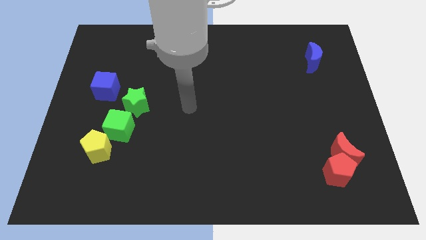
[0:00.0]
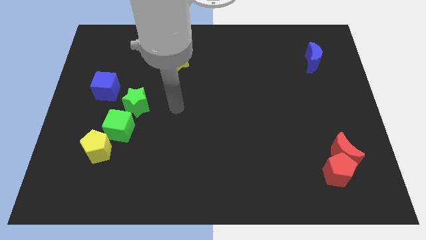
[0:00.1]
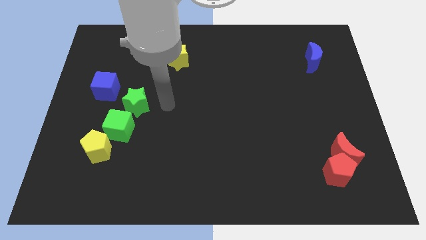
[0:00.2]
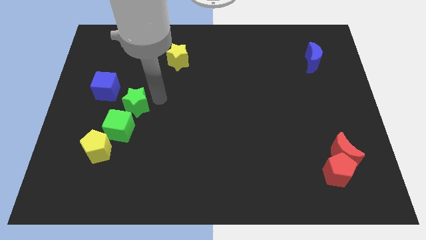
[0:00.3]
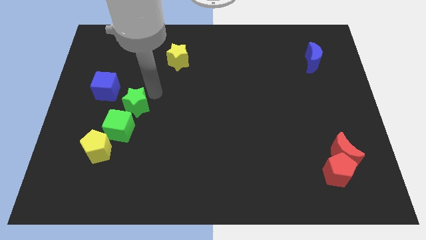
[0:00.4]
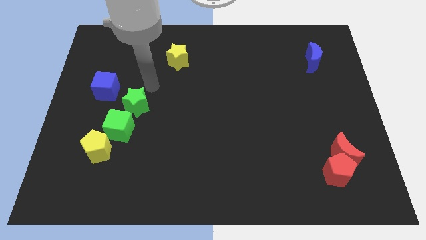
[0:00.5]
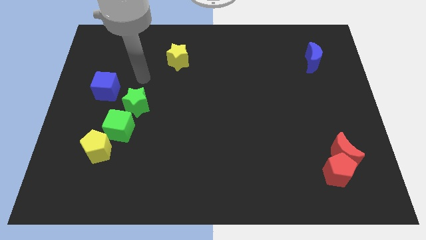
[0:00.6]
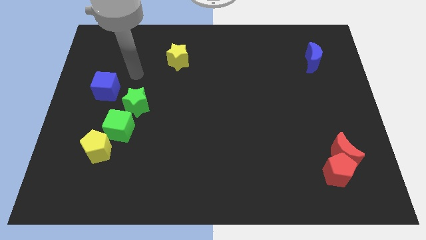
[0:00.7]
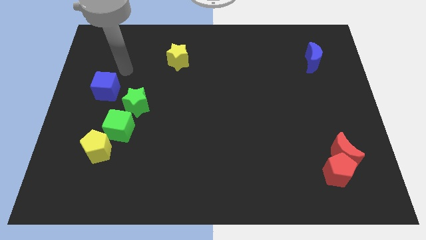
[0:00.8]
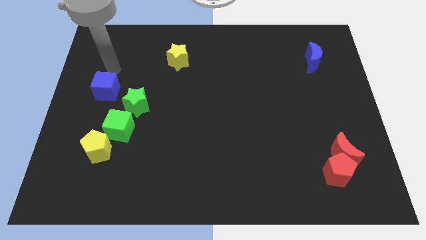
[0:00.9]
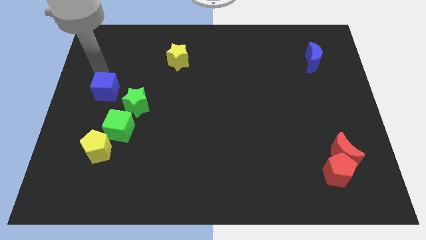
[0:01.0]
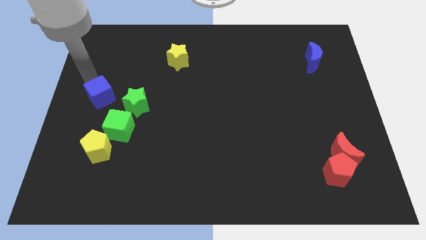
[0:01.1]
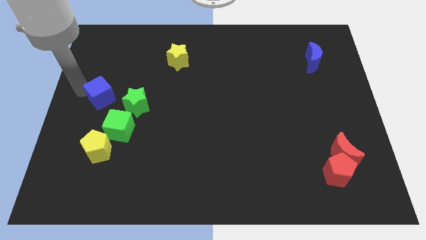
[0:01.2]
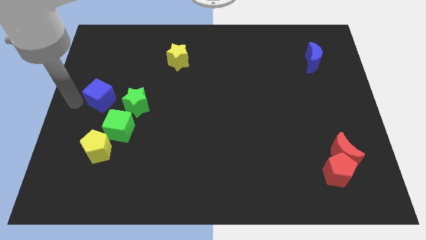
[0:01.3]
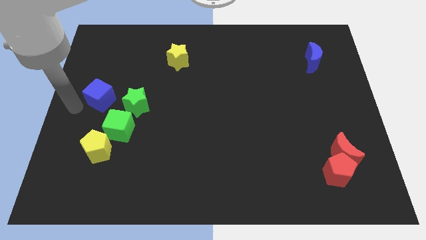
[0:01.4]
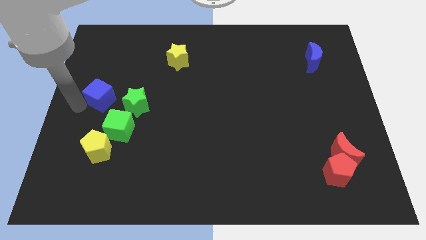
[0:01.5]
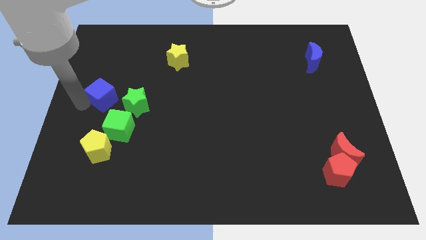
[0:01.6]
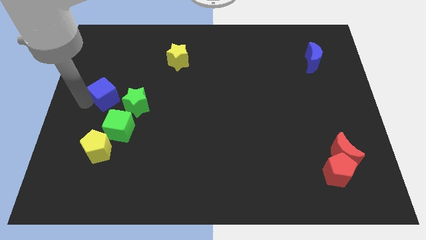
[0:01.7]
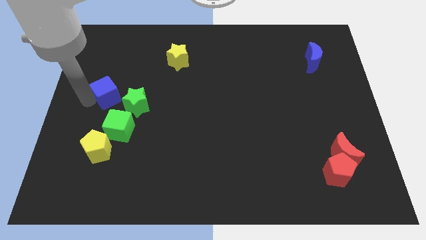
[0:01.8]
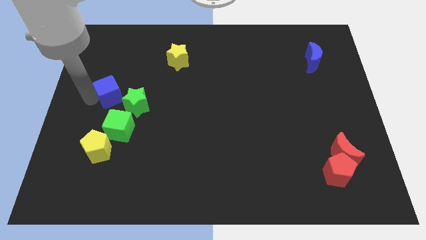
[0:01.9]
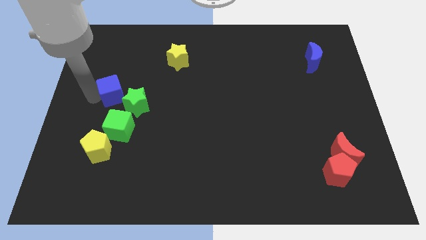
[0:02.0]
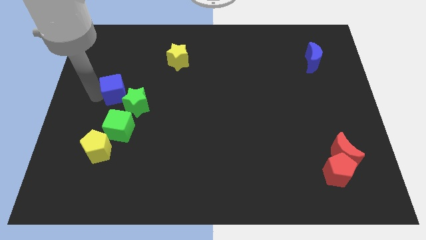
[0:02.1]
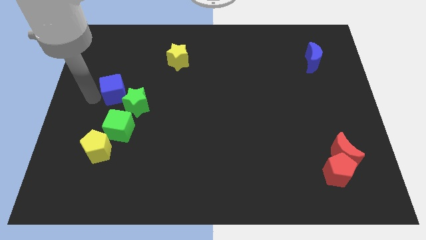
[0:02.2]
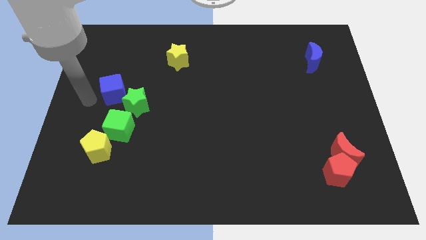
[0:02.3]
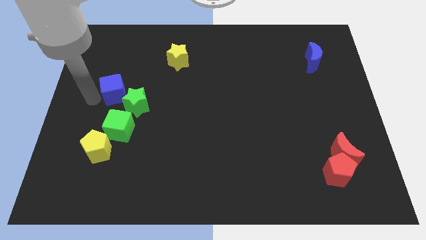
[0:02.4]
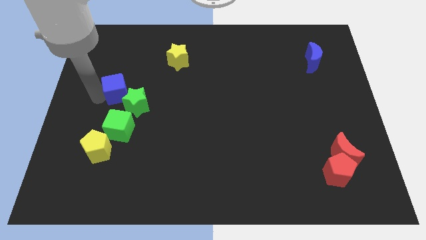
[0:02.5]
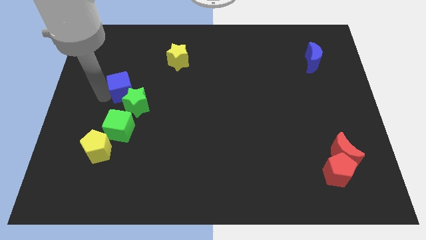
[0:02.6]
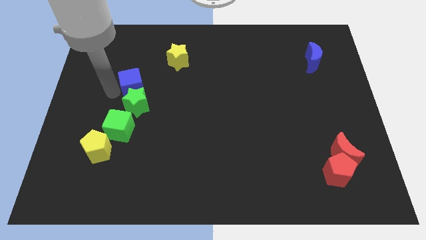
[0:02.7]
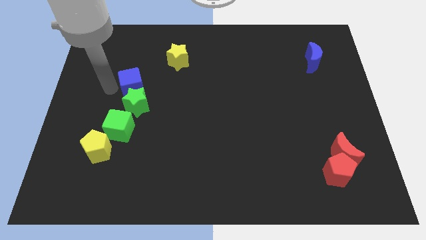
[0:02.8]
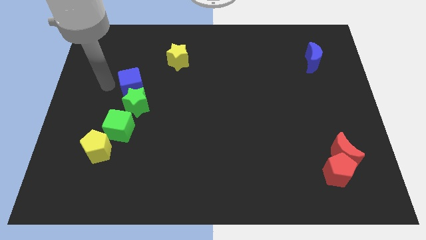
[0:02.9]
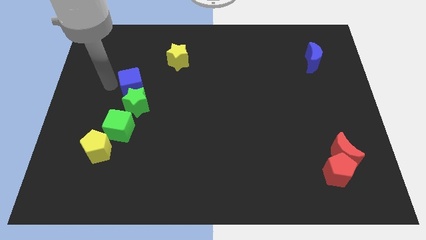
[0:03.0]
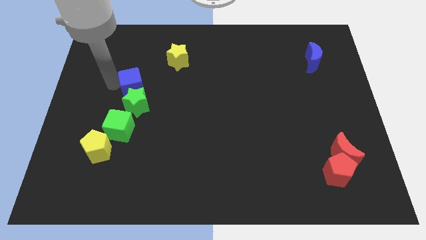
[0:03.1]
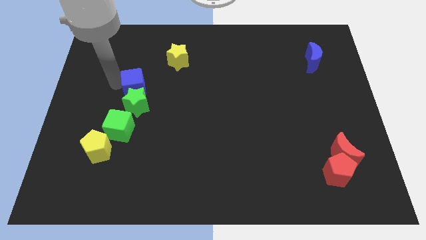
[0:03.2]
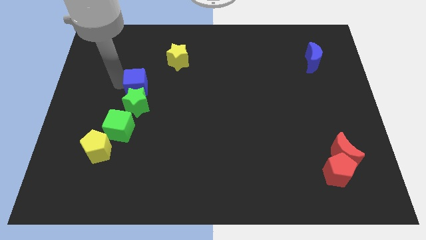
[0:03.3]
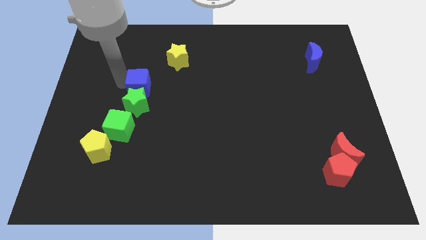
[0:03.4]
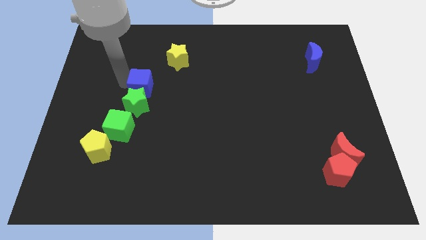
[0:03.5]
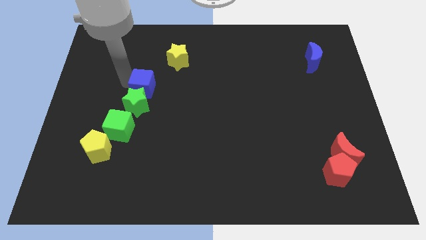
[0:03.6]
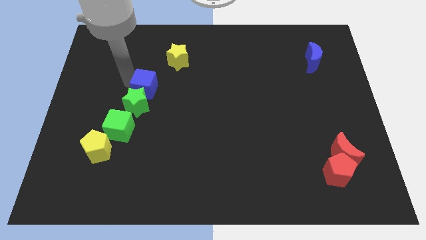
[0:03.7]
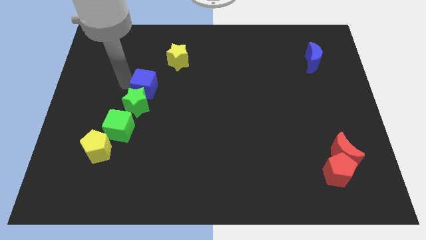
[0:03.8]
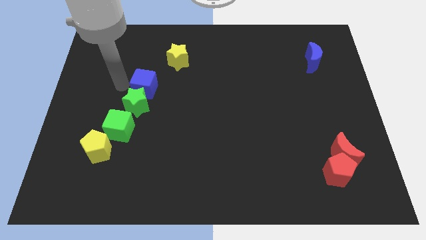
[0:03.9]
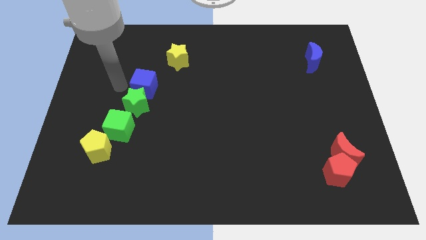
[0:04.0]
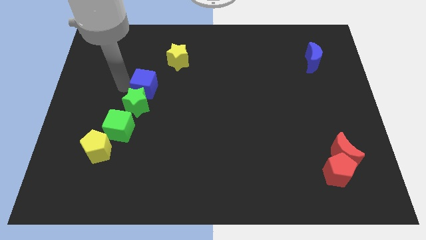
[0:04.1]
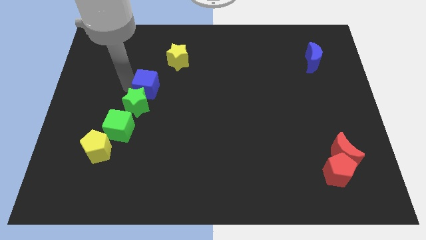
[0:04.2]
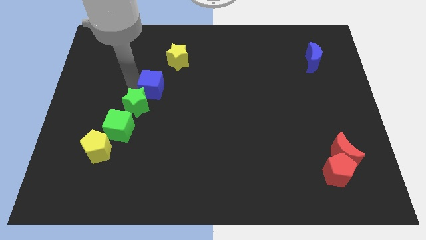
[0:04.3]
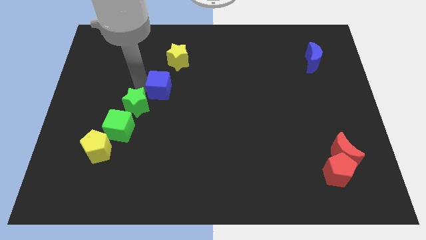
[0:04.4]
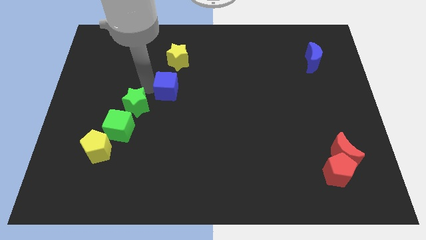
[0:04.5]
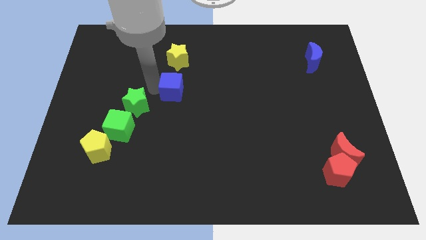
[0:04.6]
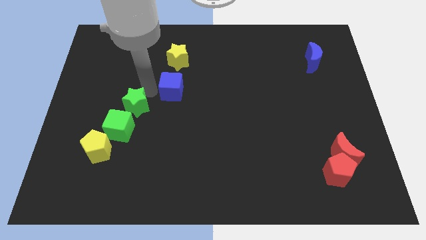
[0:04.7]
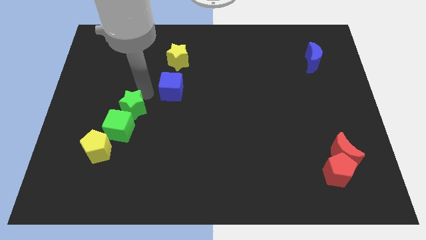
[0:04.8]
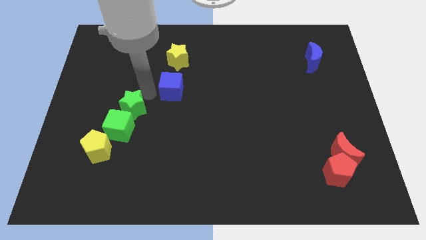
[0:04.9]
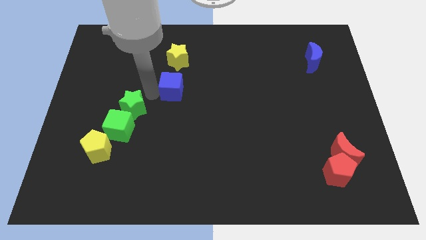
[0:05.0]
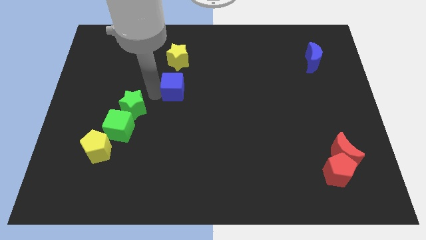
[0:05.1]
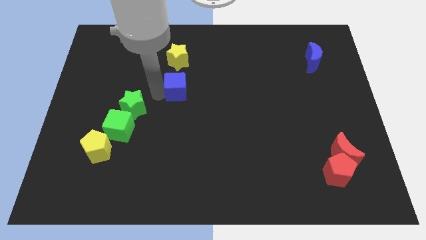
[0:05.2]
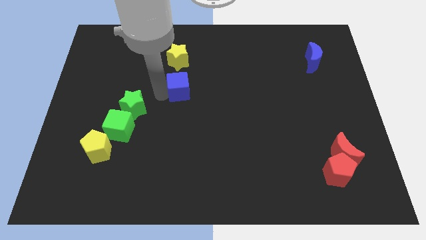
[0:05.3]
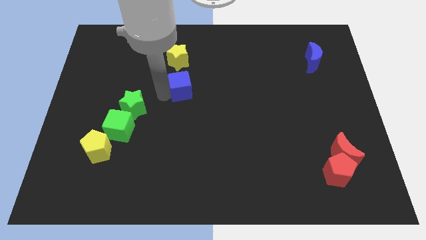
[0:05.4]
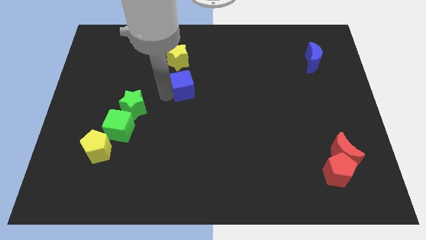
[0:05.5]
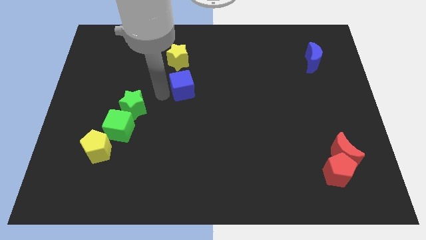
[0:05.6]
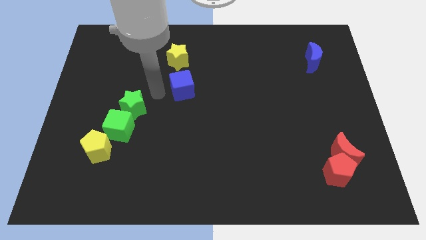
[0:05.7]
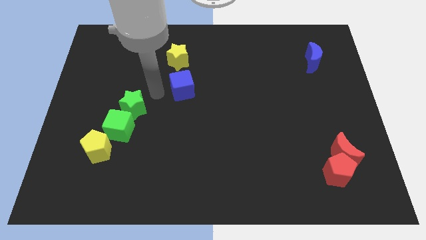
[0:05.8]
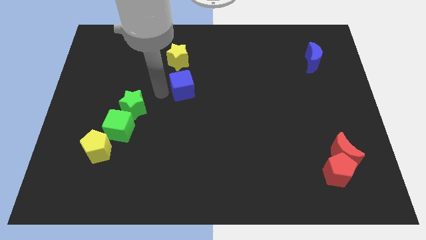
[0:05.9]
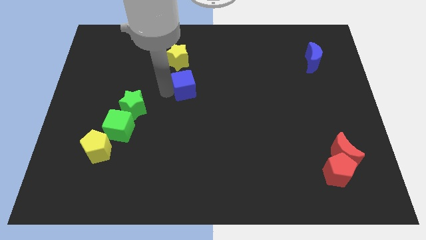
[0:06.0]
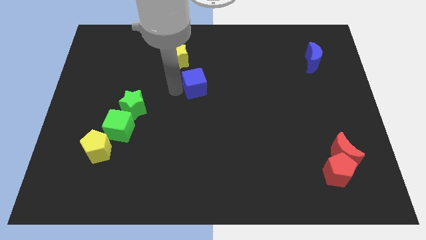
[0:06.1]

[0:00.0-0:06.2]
slide the blue cube right

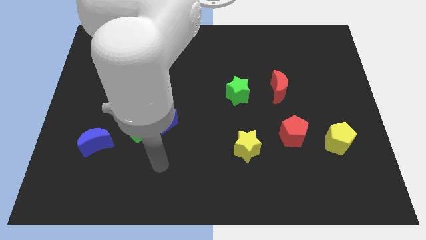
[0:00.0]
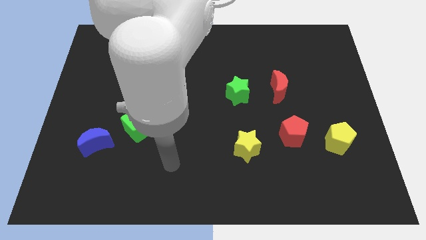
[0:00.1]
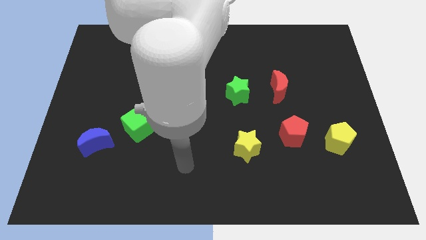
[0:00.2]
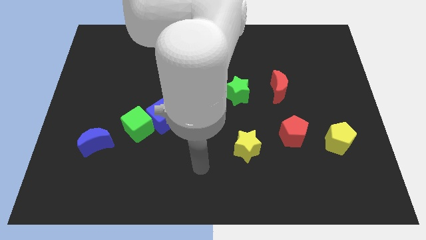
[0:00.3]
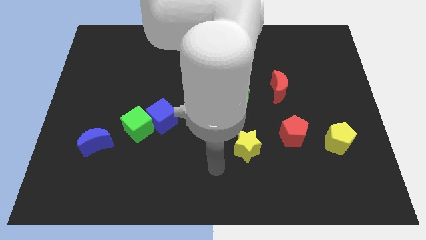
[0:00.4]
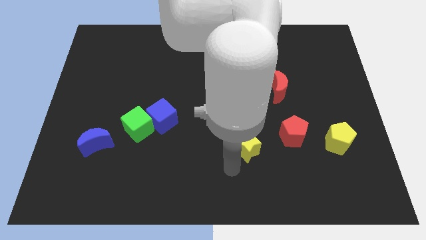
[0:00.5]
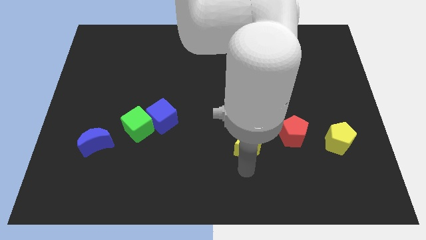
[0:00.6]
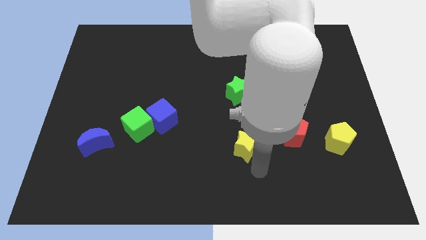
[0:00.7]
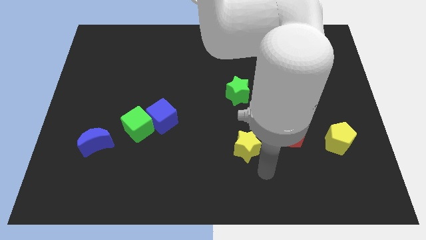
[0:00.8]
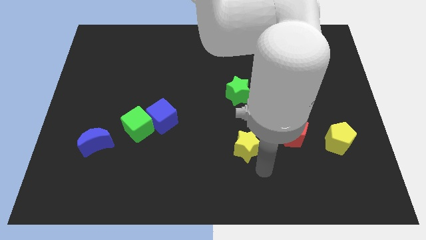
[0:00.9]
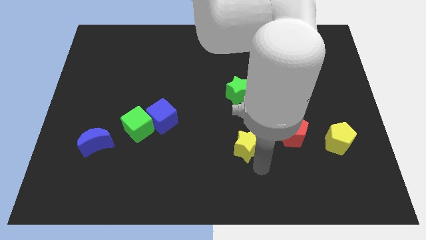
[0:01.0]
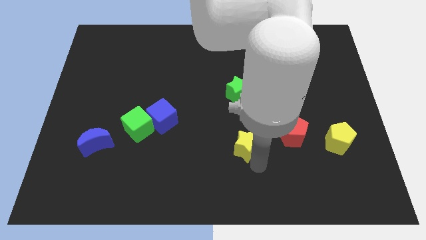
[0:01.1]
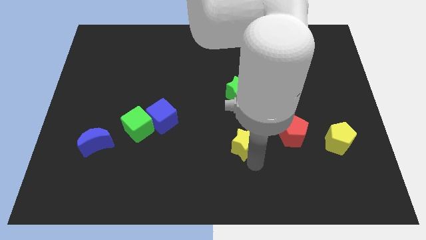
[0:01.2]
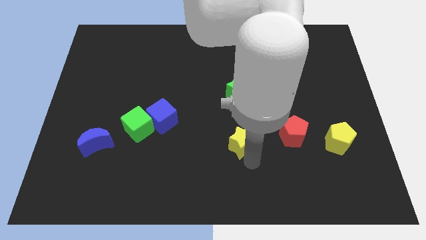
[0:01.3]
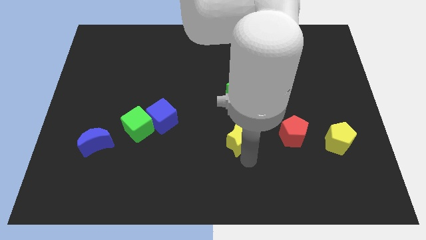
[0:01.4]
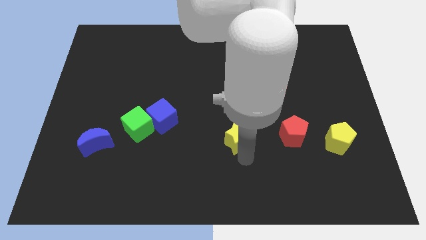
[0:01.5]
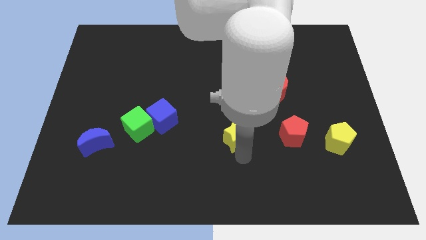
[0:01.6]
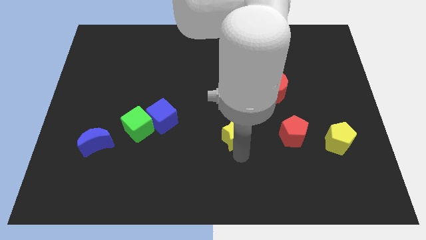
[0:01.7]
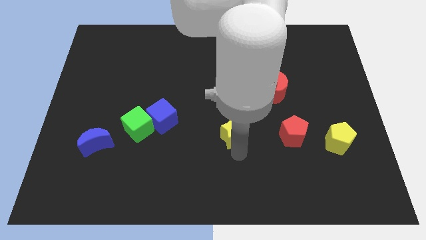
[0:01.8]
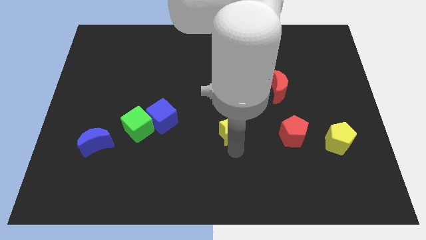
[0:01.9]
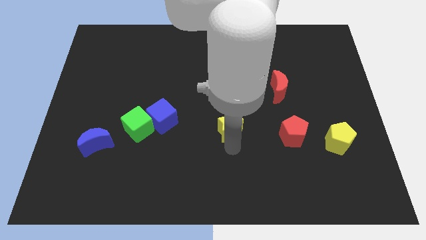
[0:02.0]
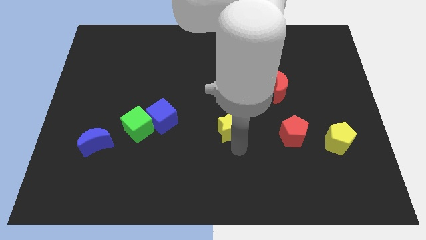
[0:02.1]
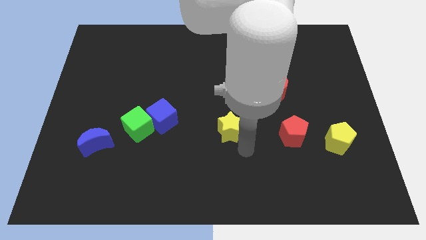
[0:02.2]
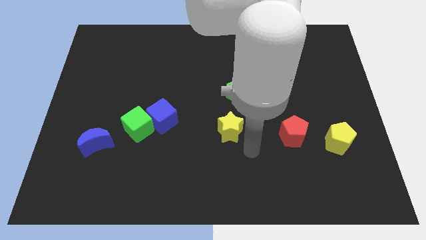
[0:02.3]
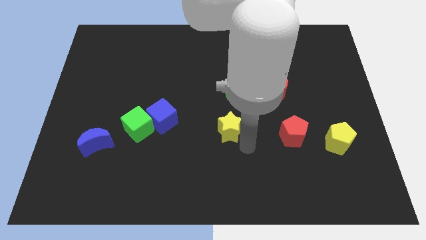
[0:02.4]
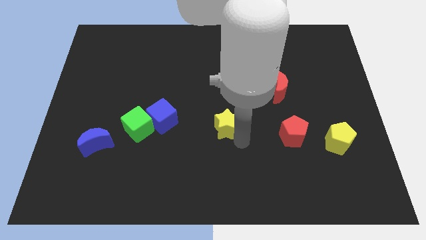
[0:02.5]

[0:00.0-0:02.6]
slightly push the yellow star diagonally upwards and to the left
